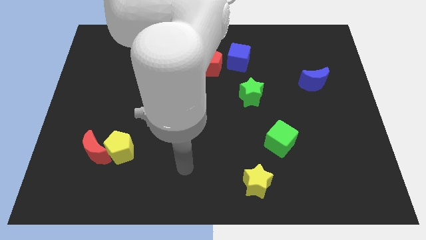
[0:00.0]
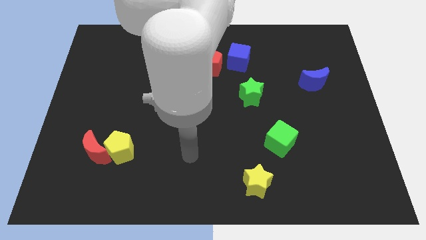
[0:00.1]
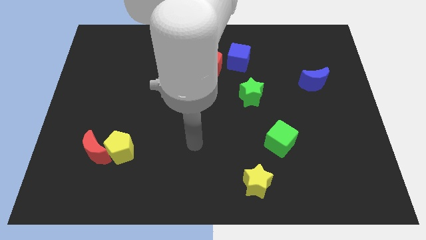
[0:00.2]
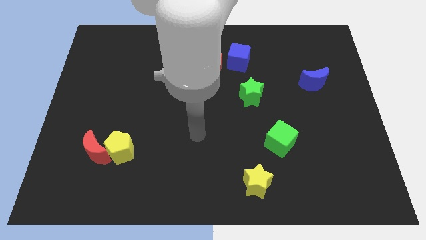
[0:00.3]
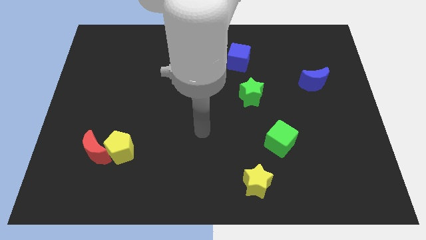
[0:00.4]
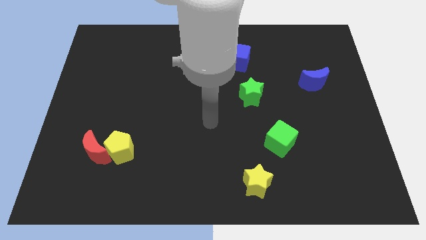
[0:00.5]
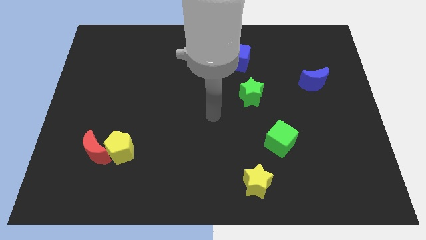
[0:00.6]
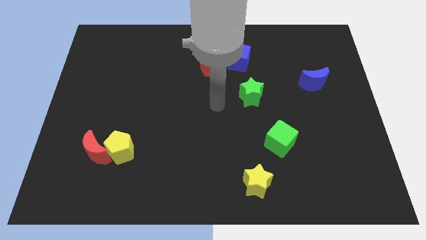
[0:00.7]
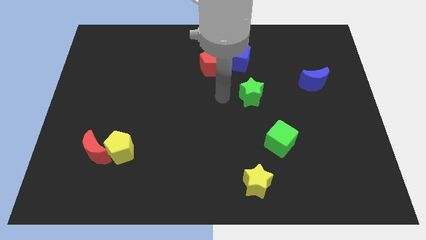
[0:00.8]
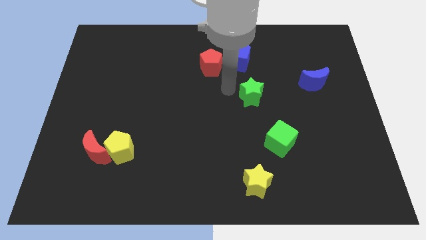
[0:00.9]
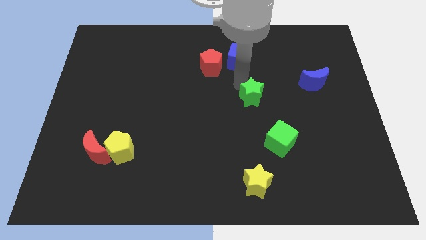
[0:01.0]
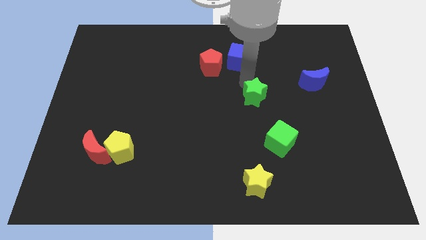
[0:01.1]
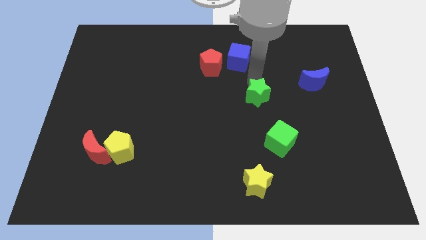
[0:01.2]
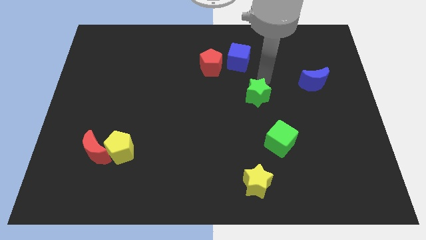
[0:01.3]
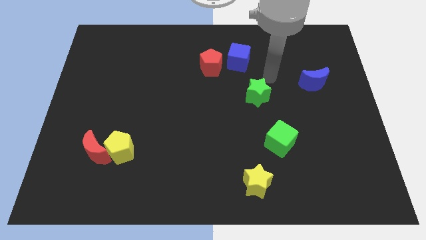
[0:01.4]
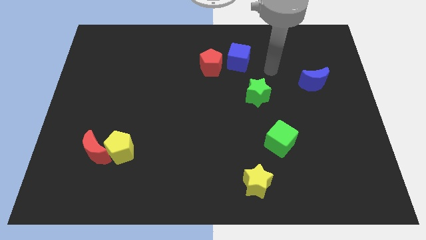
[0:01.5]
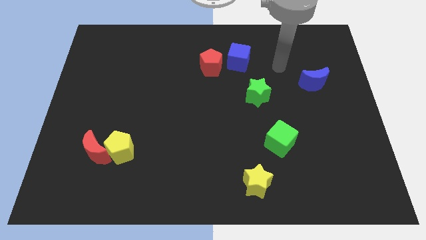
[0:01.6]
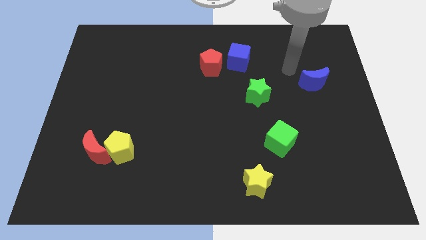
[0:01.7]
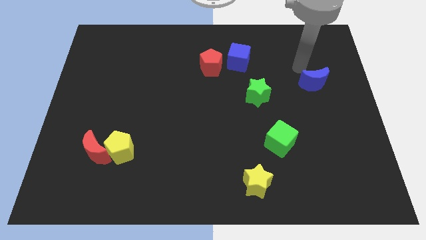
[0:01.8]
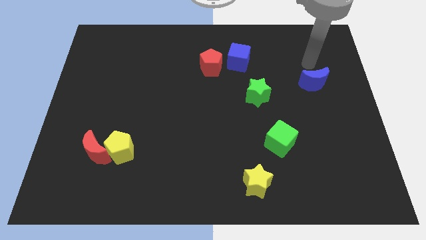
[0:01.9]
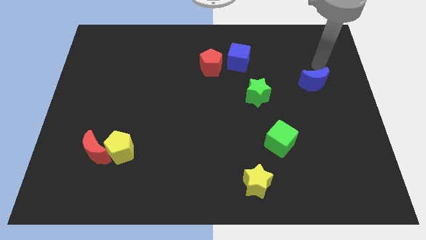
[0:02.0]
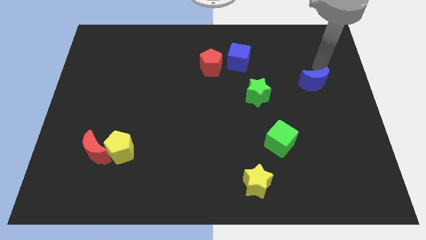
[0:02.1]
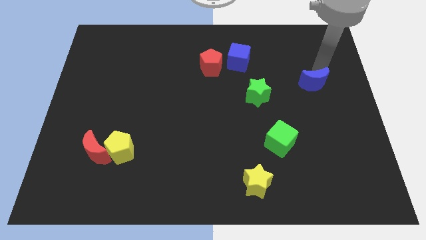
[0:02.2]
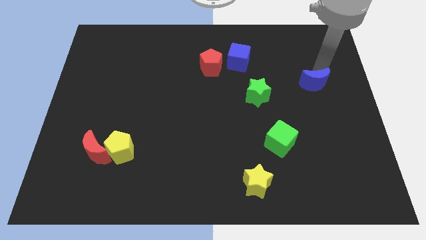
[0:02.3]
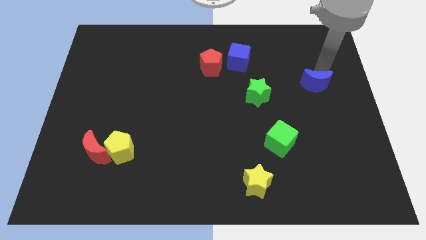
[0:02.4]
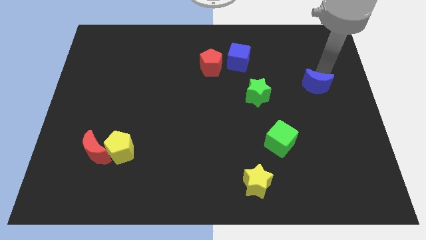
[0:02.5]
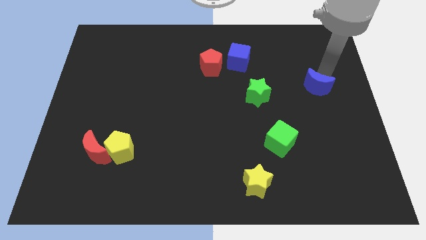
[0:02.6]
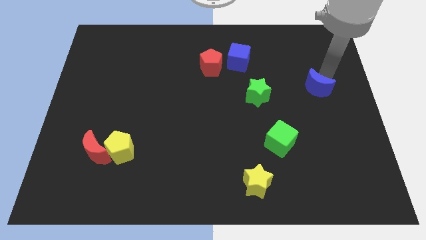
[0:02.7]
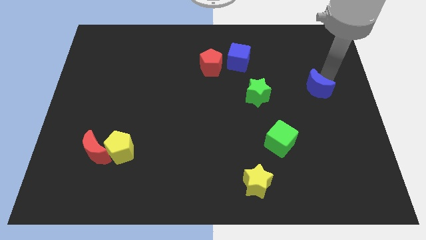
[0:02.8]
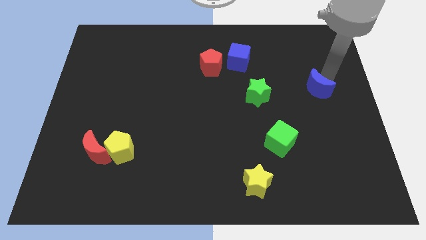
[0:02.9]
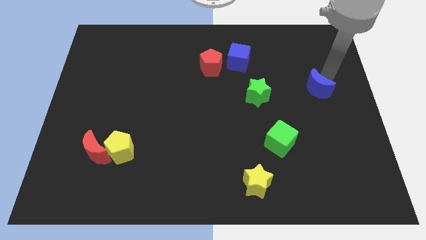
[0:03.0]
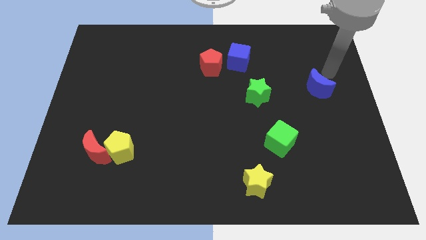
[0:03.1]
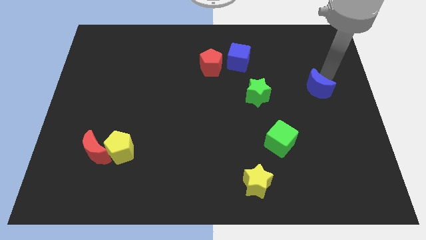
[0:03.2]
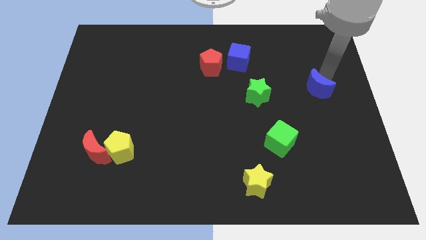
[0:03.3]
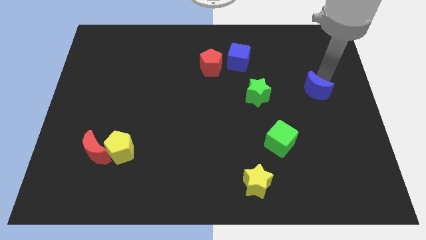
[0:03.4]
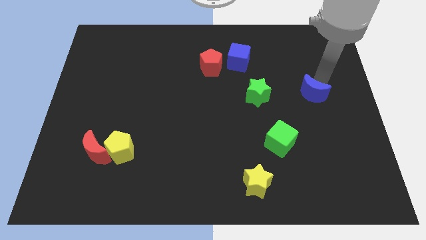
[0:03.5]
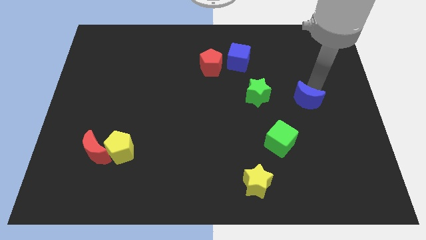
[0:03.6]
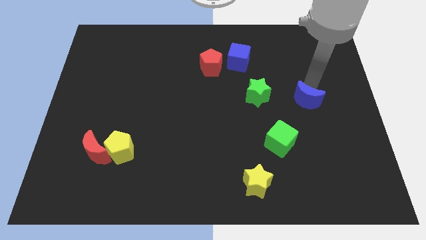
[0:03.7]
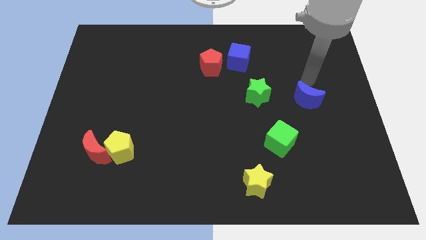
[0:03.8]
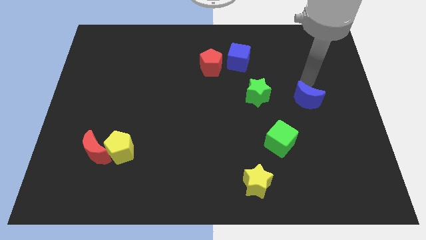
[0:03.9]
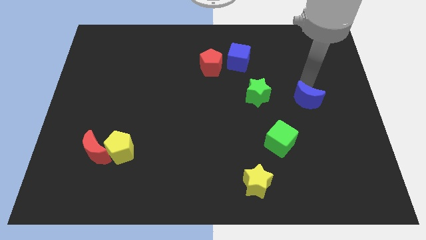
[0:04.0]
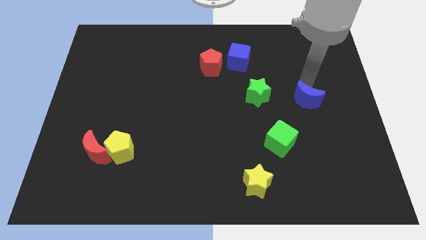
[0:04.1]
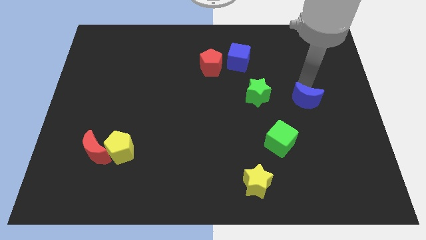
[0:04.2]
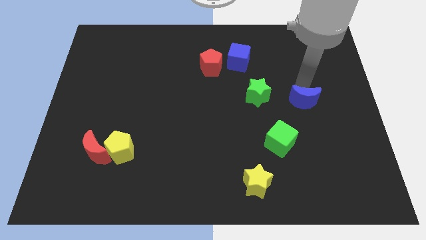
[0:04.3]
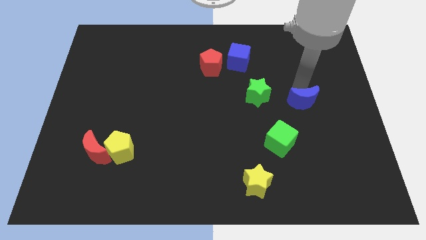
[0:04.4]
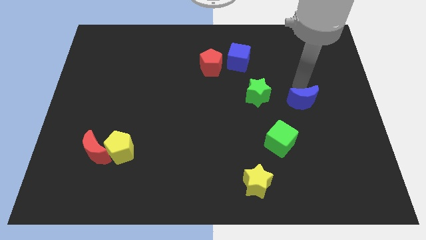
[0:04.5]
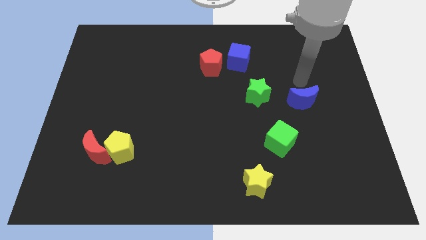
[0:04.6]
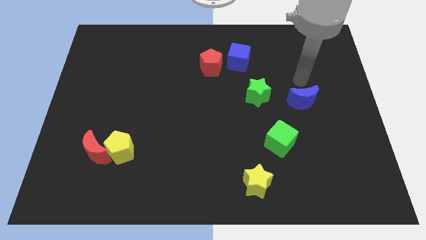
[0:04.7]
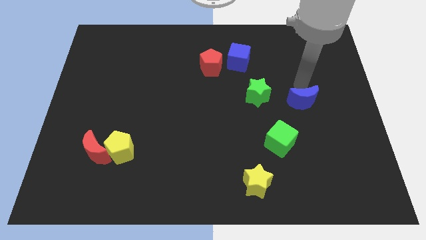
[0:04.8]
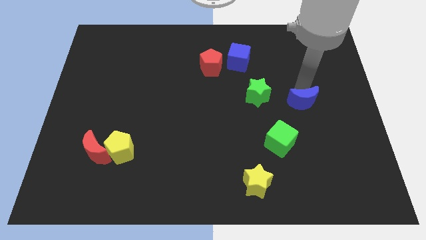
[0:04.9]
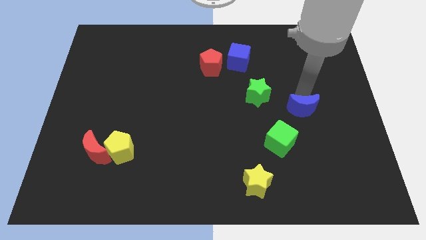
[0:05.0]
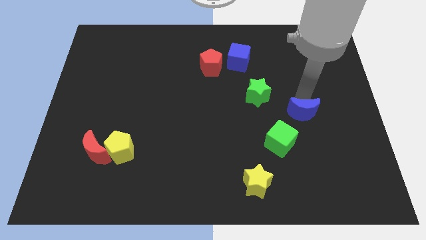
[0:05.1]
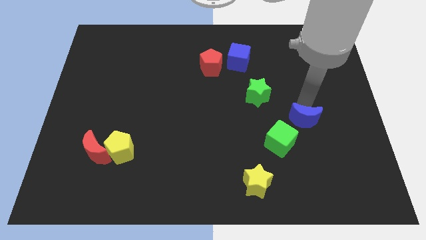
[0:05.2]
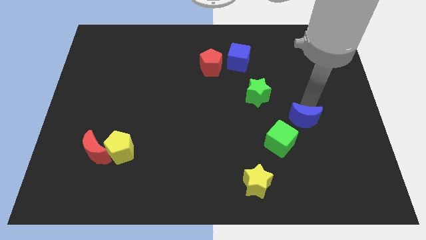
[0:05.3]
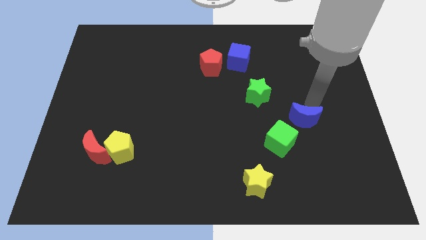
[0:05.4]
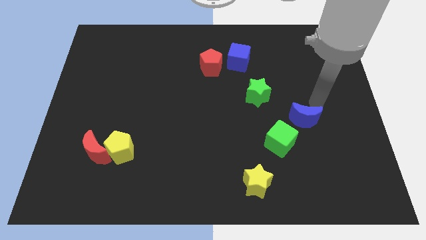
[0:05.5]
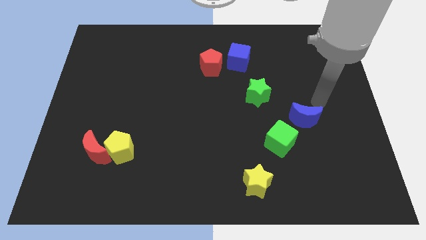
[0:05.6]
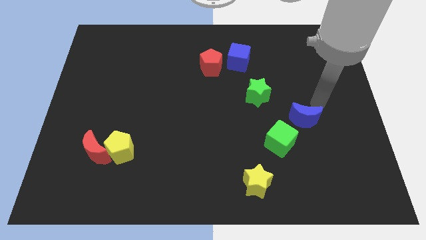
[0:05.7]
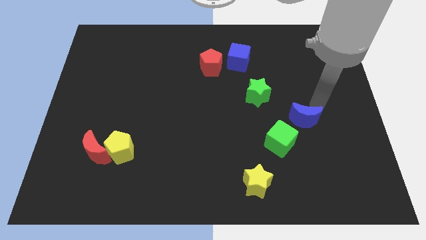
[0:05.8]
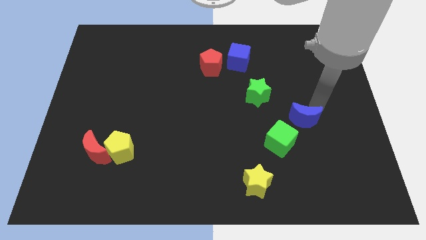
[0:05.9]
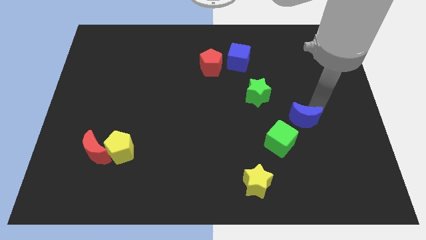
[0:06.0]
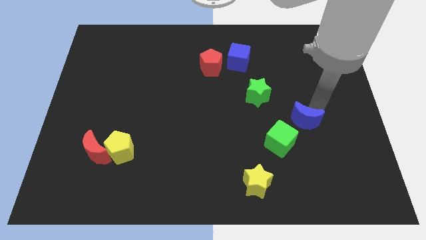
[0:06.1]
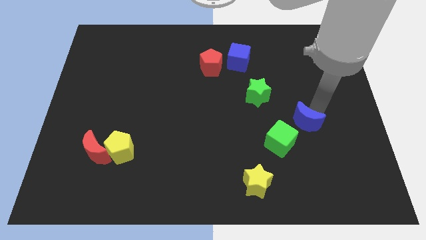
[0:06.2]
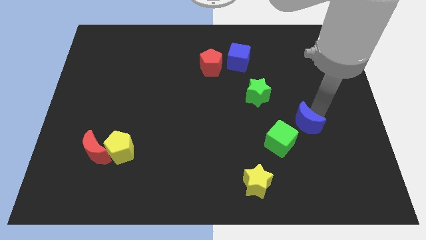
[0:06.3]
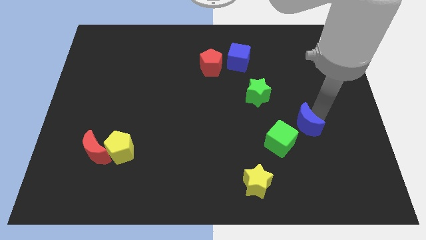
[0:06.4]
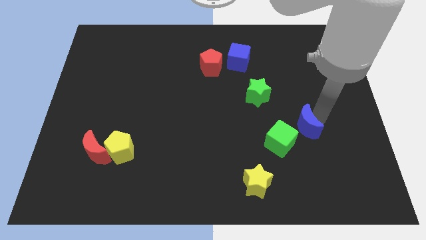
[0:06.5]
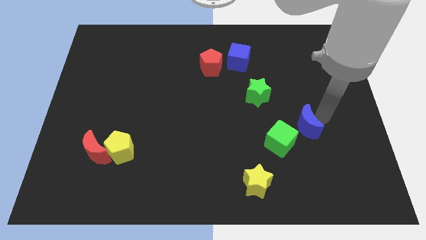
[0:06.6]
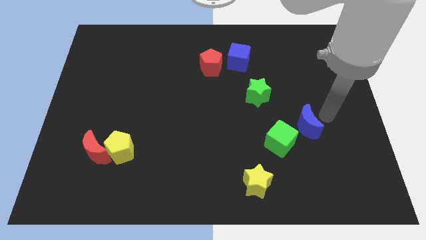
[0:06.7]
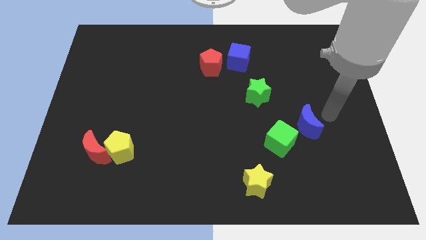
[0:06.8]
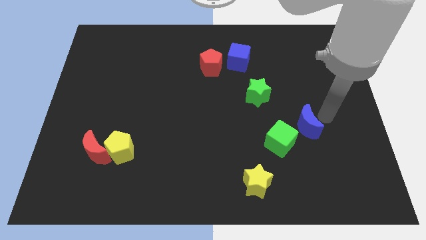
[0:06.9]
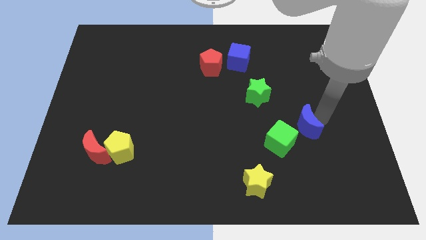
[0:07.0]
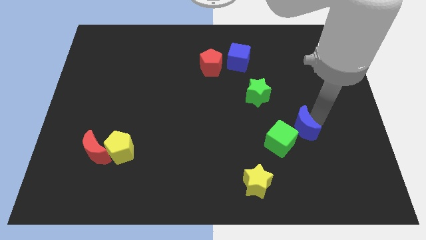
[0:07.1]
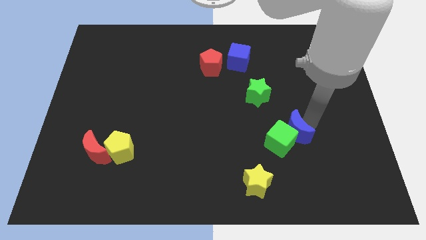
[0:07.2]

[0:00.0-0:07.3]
move the blue moon to the green cube
